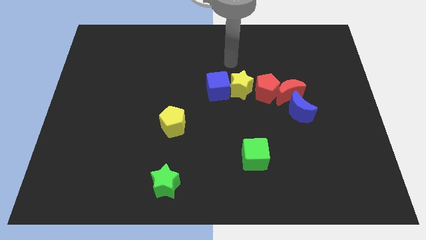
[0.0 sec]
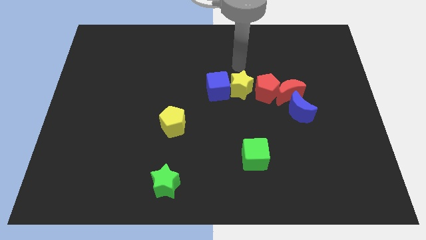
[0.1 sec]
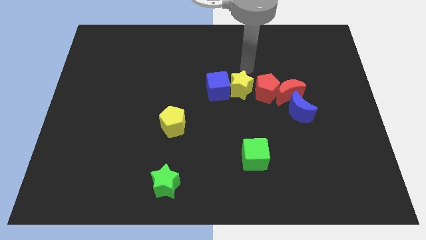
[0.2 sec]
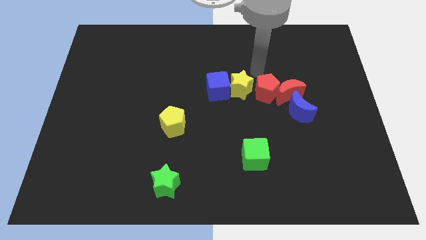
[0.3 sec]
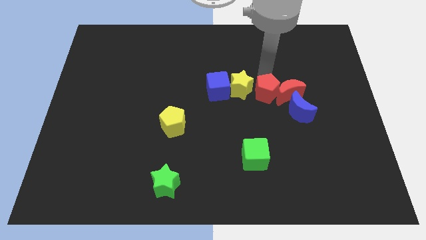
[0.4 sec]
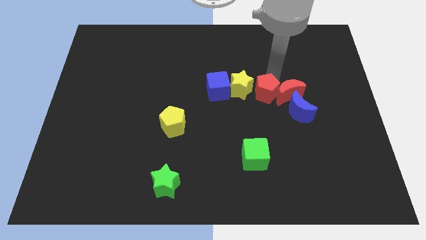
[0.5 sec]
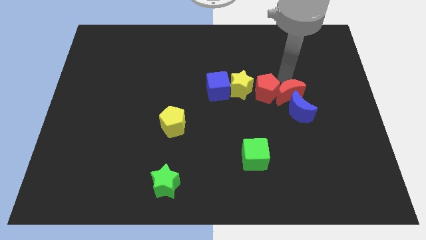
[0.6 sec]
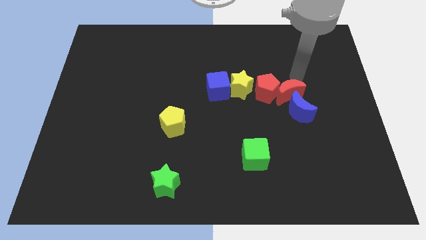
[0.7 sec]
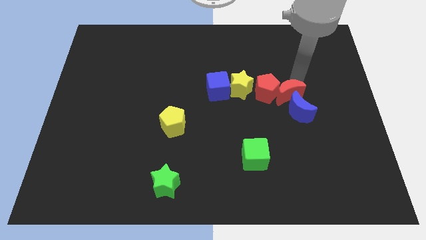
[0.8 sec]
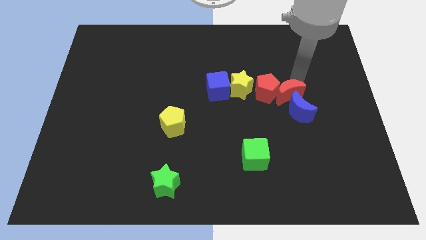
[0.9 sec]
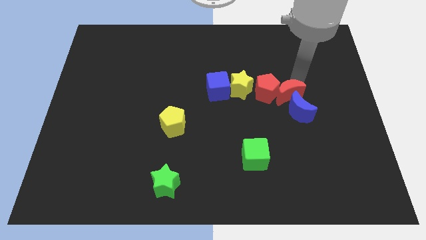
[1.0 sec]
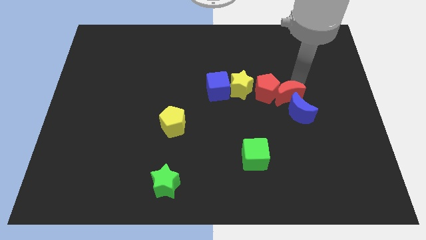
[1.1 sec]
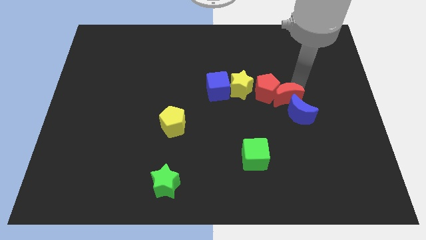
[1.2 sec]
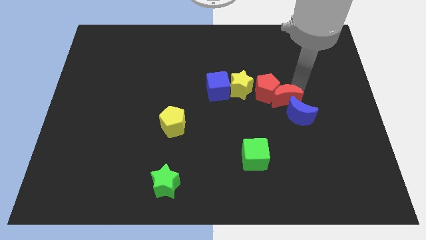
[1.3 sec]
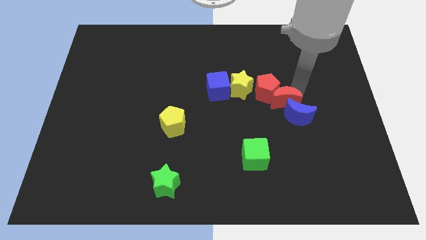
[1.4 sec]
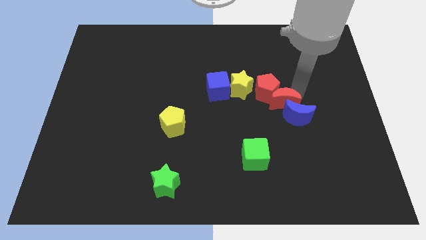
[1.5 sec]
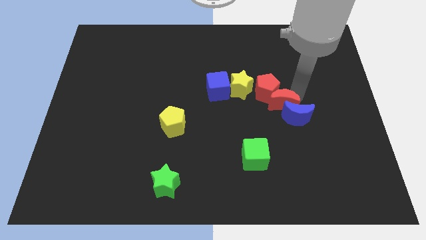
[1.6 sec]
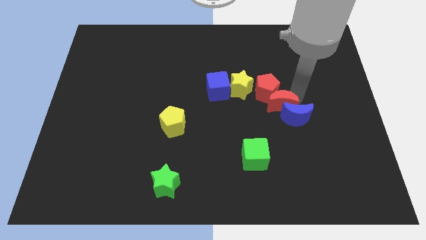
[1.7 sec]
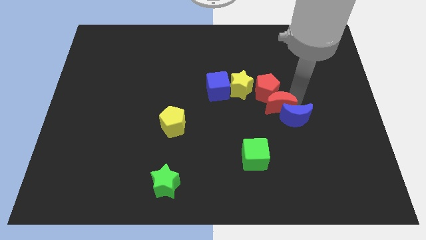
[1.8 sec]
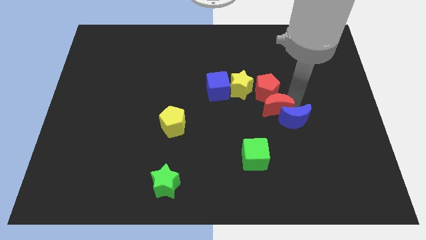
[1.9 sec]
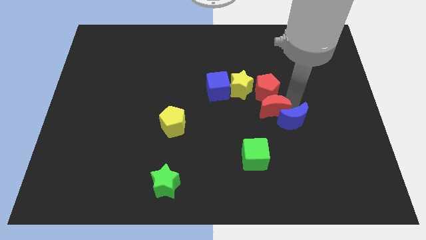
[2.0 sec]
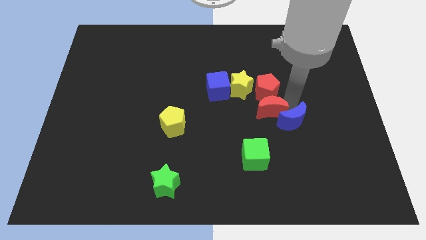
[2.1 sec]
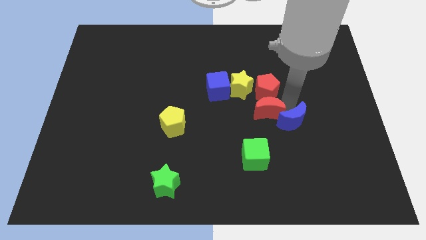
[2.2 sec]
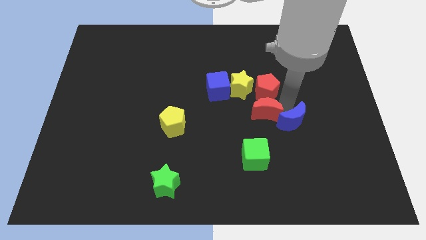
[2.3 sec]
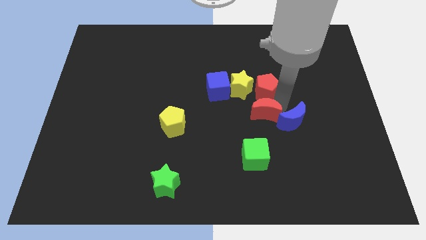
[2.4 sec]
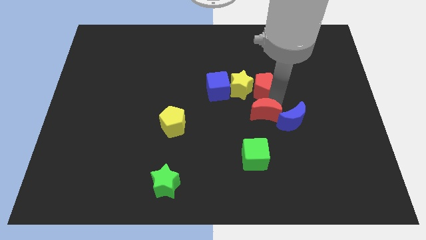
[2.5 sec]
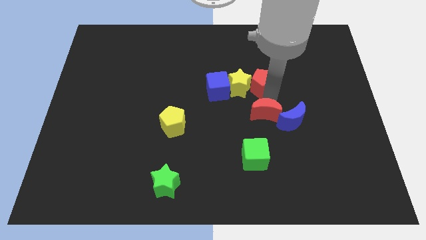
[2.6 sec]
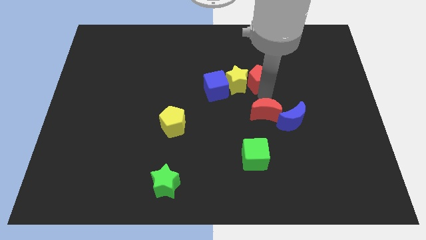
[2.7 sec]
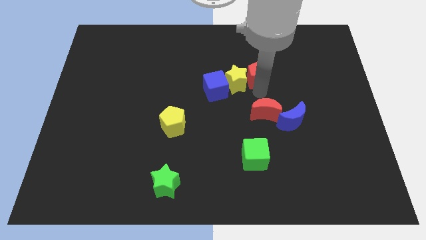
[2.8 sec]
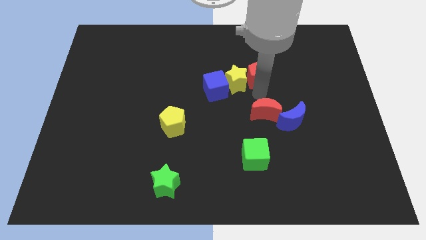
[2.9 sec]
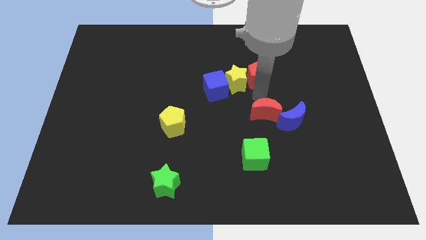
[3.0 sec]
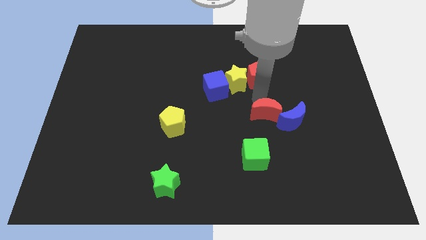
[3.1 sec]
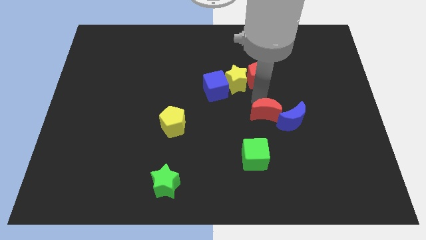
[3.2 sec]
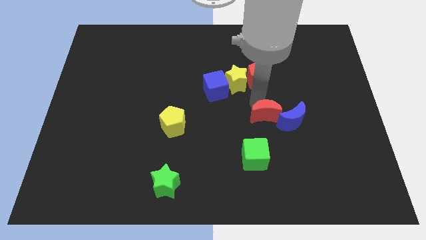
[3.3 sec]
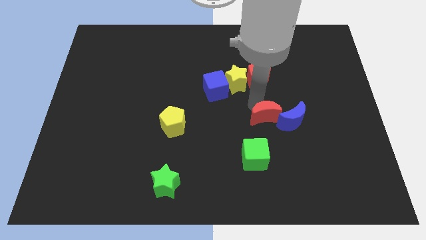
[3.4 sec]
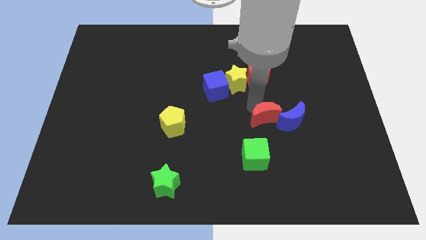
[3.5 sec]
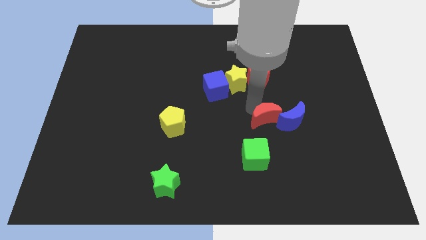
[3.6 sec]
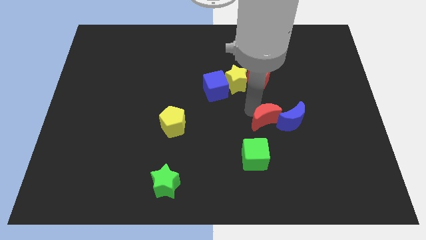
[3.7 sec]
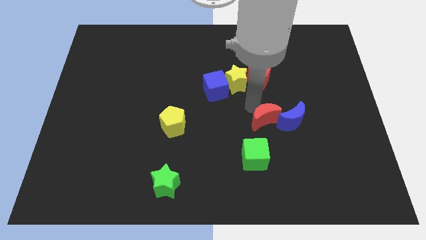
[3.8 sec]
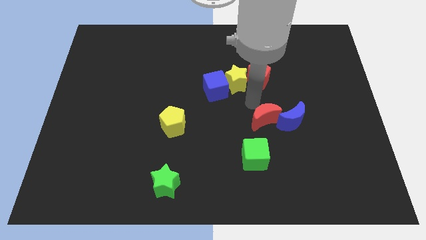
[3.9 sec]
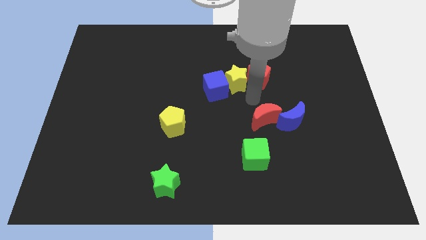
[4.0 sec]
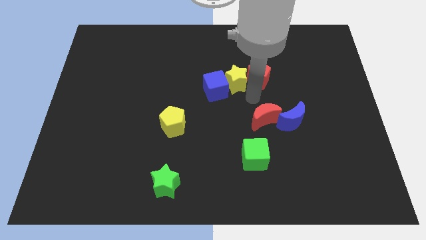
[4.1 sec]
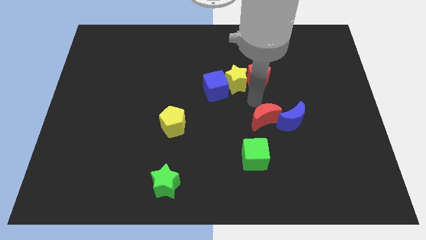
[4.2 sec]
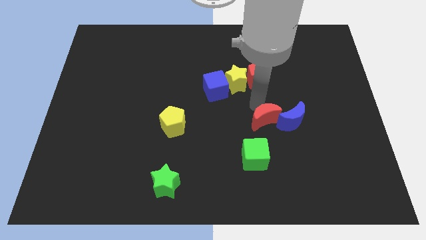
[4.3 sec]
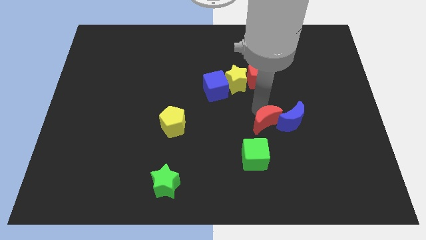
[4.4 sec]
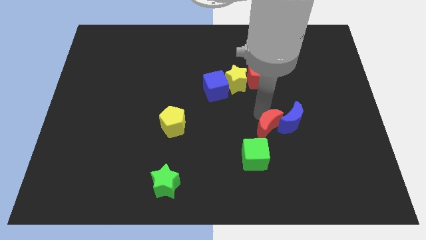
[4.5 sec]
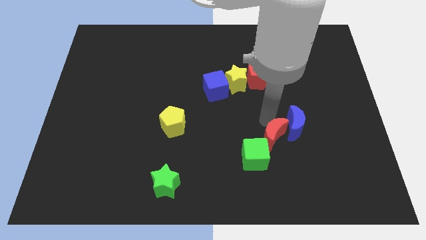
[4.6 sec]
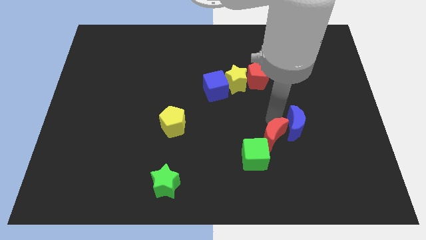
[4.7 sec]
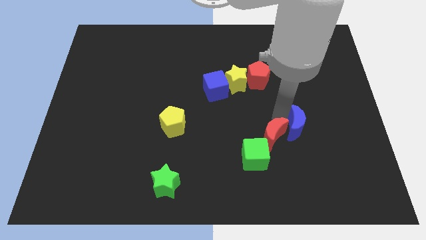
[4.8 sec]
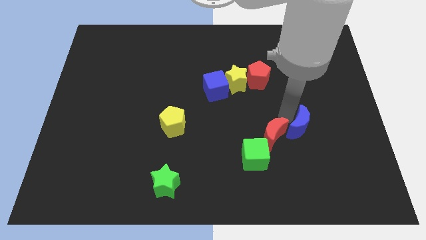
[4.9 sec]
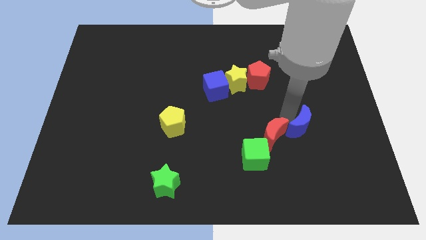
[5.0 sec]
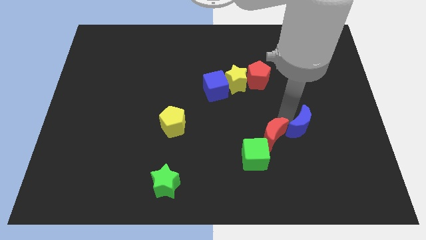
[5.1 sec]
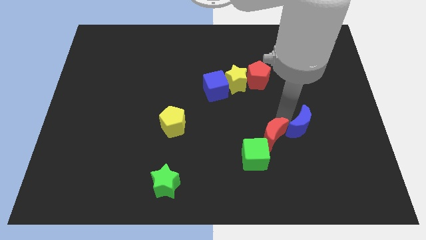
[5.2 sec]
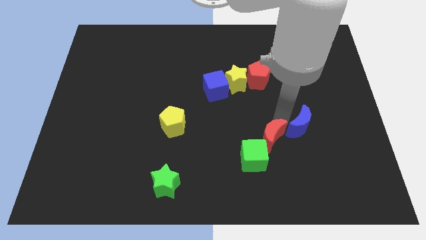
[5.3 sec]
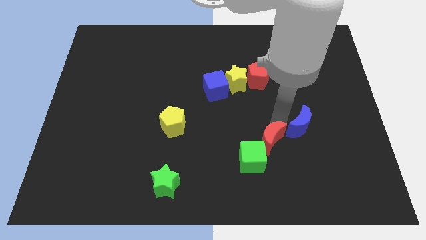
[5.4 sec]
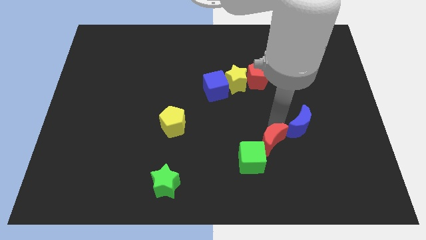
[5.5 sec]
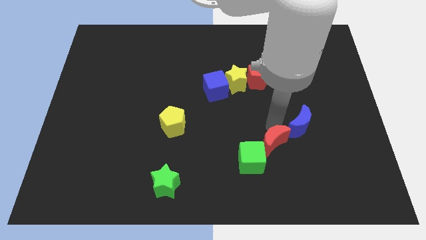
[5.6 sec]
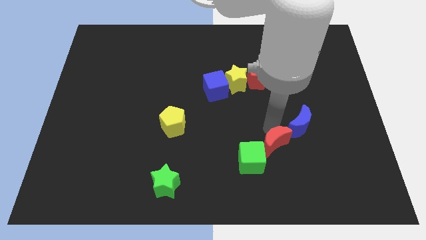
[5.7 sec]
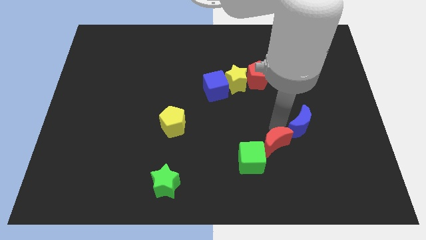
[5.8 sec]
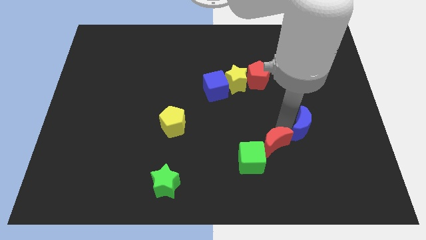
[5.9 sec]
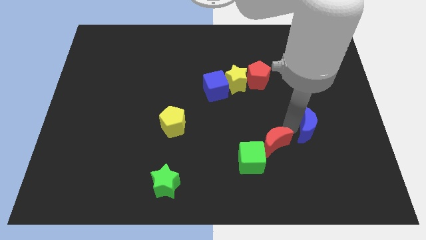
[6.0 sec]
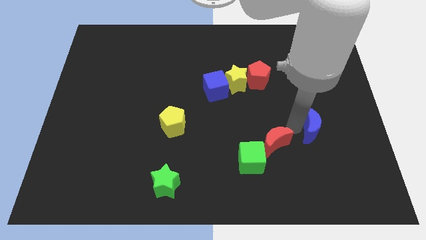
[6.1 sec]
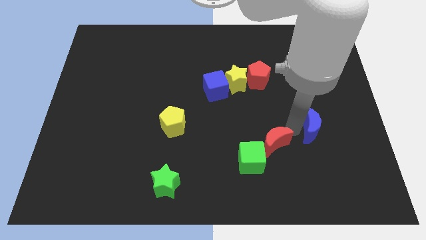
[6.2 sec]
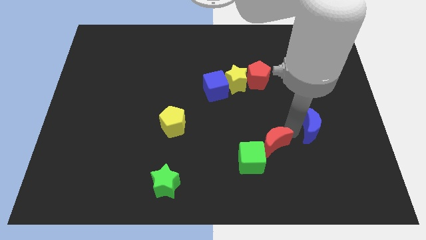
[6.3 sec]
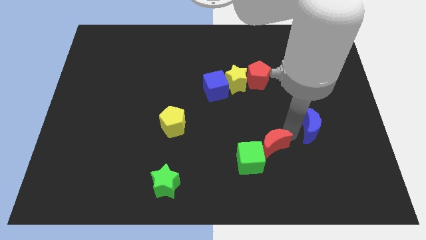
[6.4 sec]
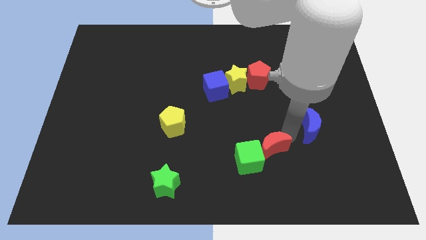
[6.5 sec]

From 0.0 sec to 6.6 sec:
slide the red moon close to the green cube

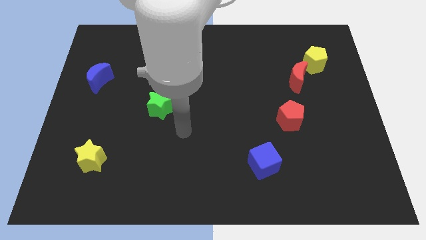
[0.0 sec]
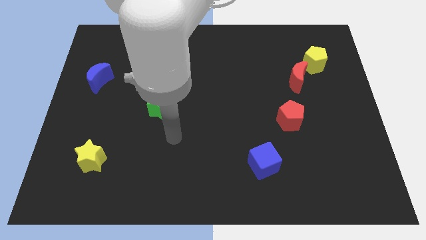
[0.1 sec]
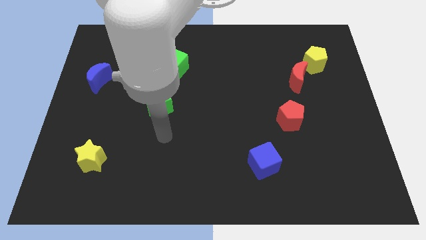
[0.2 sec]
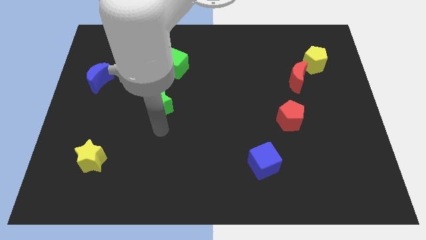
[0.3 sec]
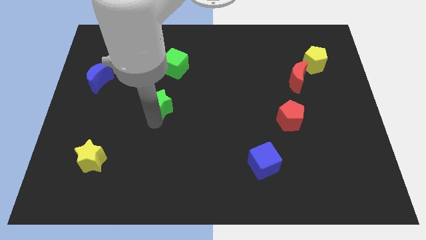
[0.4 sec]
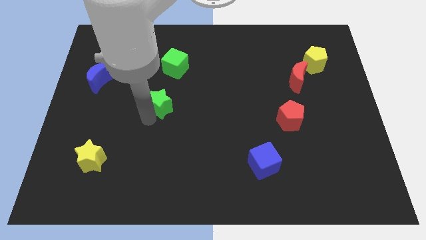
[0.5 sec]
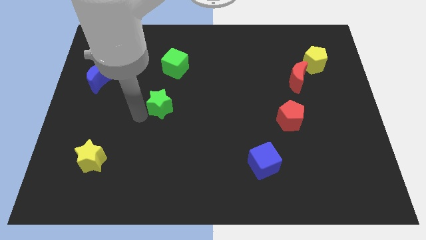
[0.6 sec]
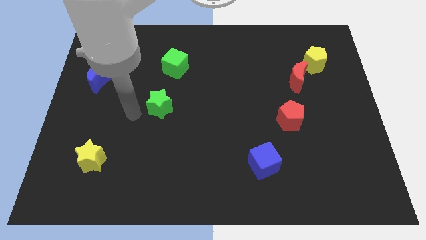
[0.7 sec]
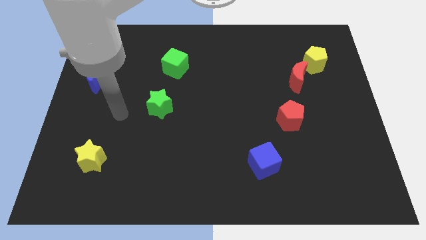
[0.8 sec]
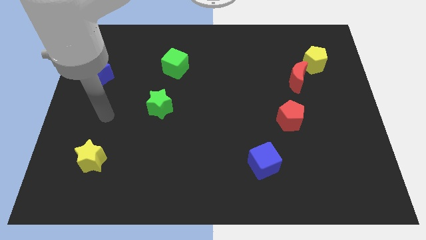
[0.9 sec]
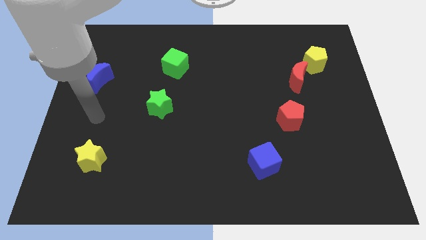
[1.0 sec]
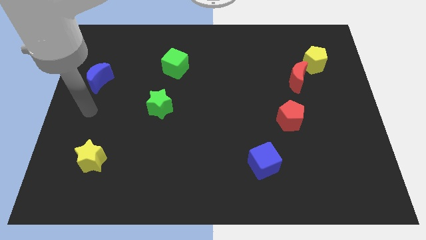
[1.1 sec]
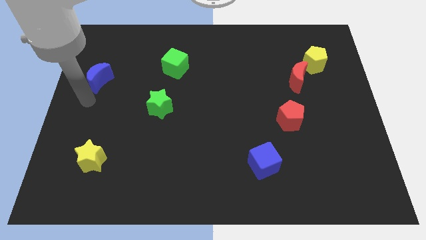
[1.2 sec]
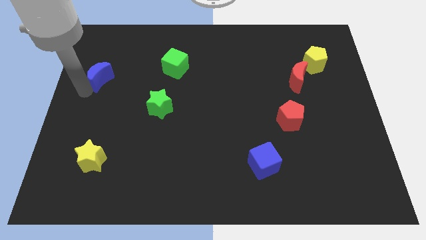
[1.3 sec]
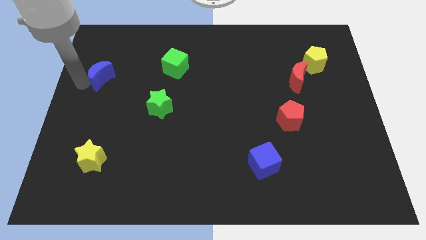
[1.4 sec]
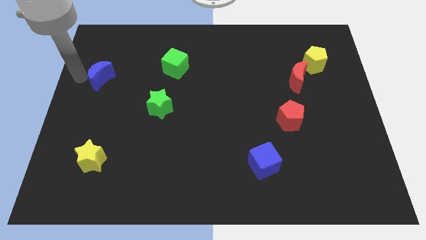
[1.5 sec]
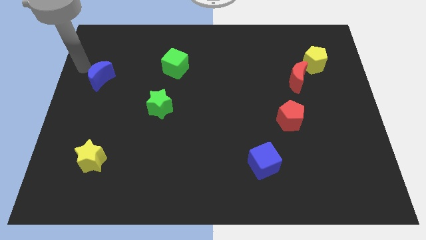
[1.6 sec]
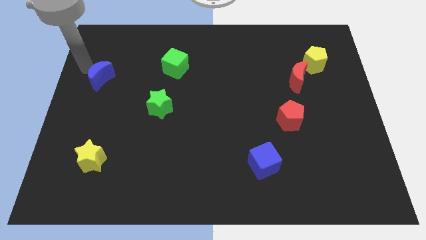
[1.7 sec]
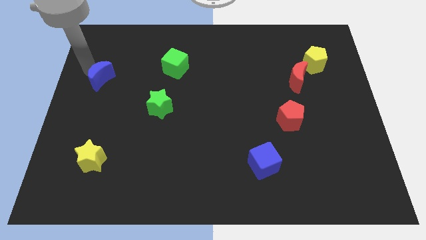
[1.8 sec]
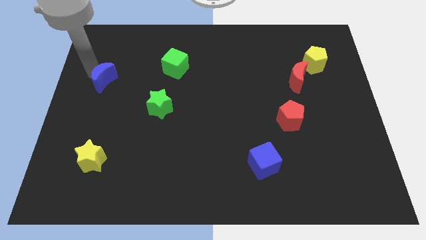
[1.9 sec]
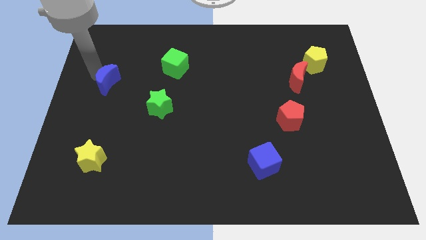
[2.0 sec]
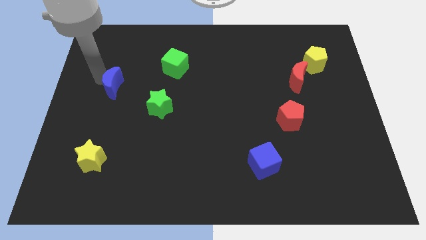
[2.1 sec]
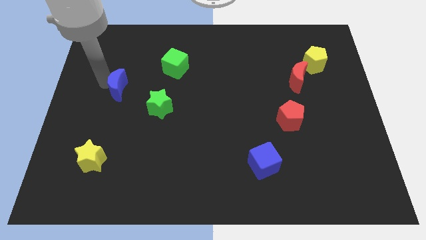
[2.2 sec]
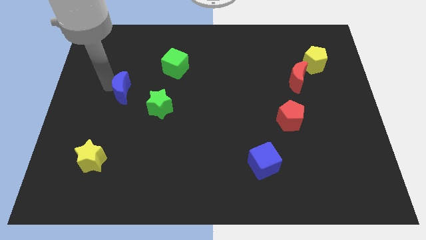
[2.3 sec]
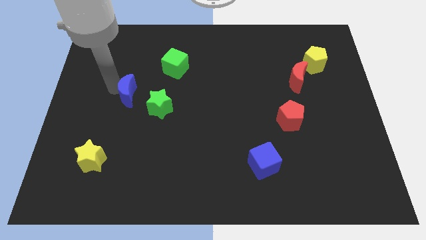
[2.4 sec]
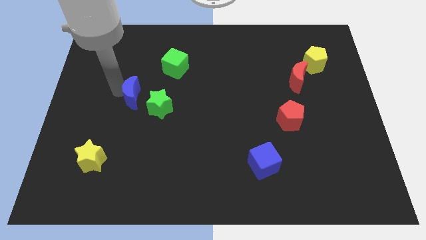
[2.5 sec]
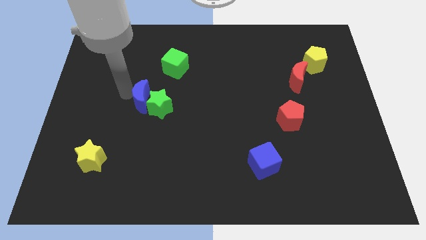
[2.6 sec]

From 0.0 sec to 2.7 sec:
move the blue moon next to the green star
